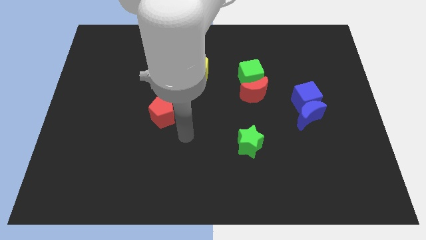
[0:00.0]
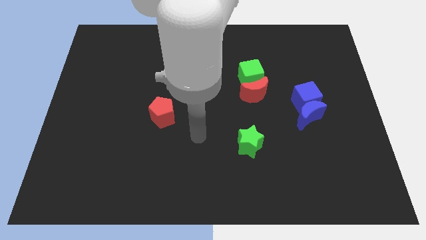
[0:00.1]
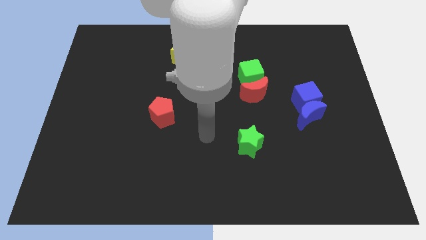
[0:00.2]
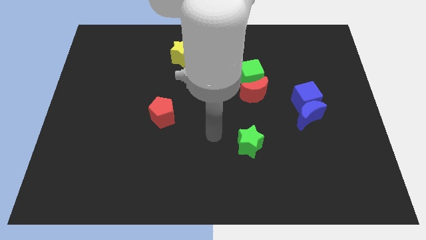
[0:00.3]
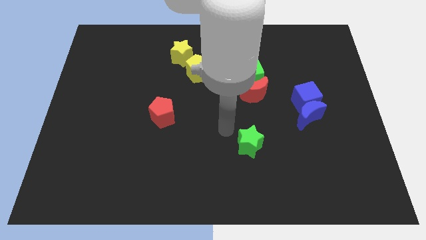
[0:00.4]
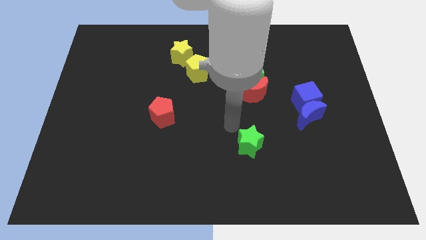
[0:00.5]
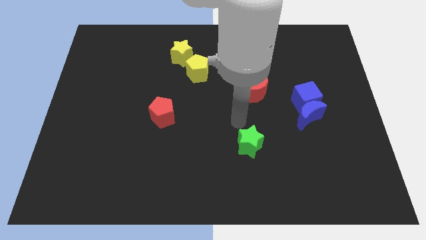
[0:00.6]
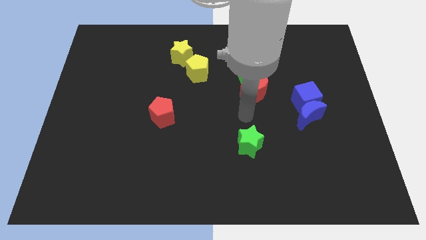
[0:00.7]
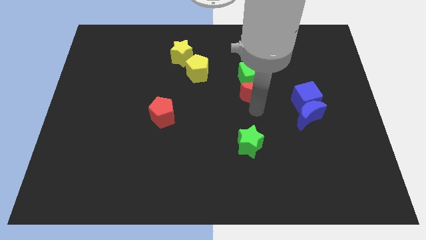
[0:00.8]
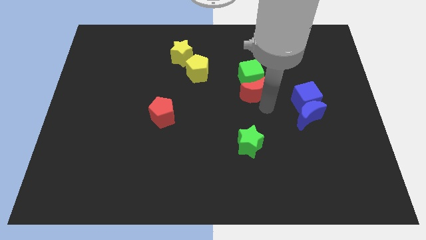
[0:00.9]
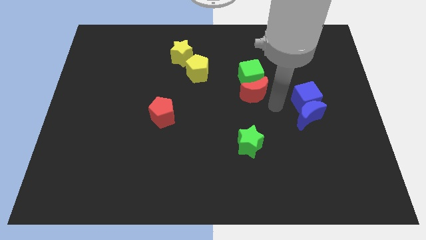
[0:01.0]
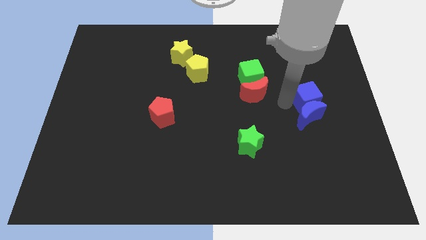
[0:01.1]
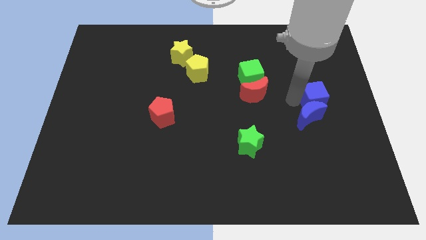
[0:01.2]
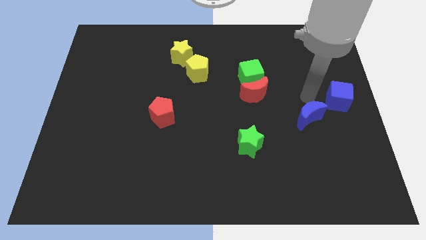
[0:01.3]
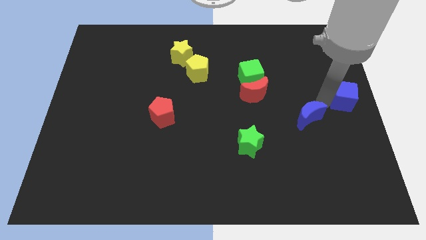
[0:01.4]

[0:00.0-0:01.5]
separate the blue moon from the blue cube

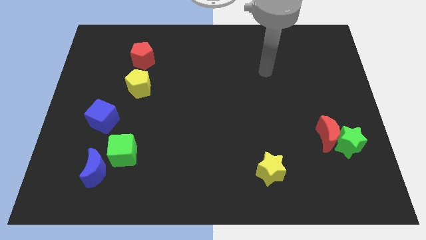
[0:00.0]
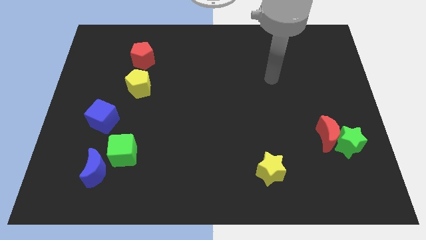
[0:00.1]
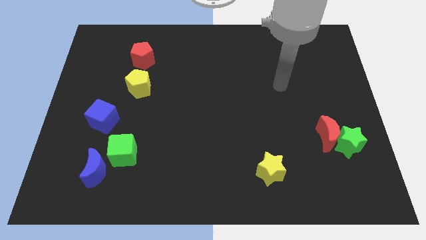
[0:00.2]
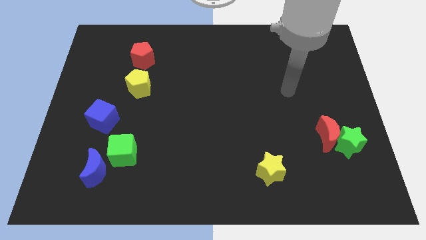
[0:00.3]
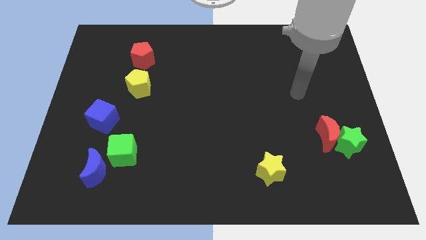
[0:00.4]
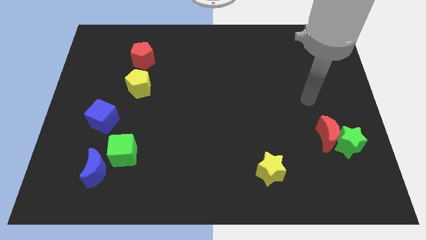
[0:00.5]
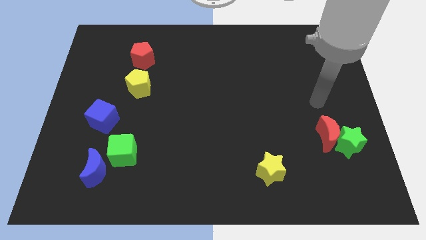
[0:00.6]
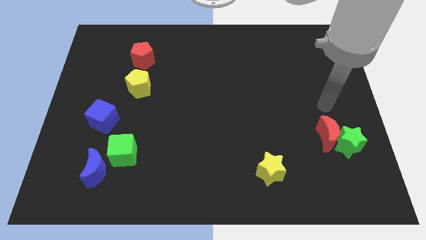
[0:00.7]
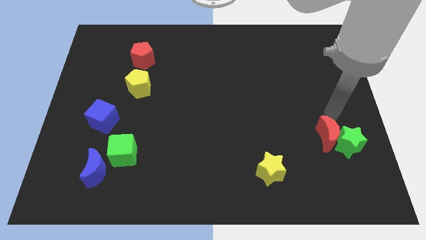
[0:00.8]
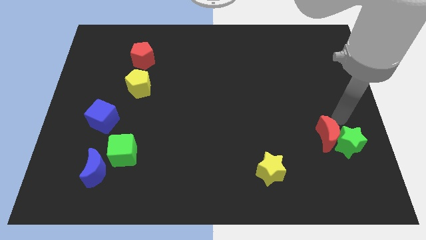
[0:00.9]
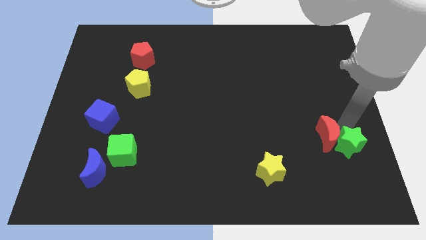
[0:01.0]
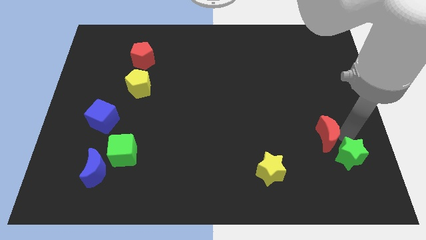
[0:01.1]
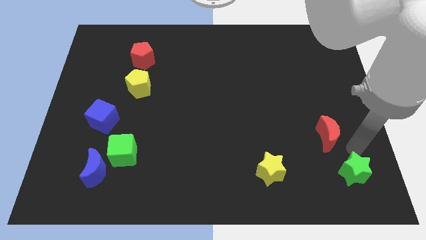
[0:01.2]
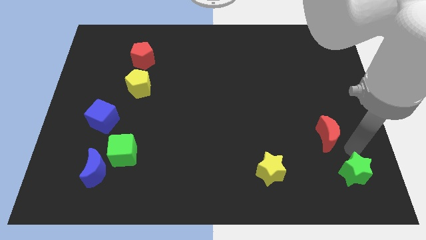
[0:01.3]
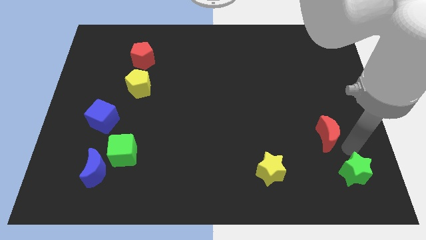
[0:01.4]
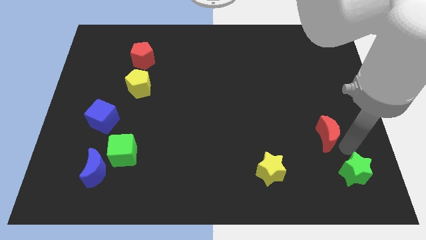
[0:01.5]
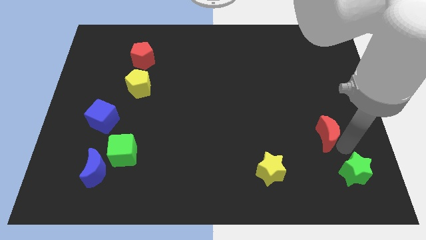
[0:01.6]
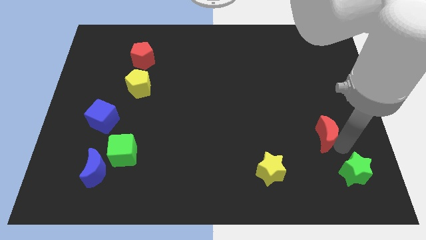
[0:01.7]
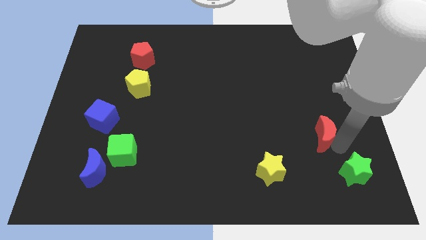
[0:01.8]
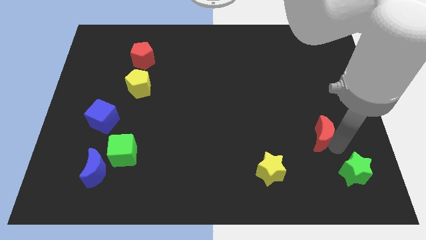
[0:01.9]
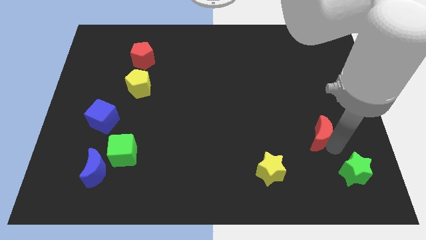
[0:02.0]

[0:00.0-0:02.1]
move the red moon away from the green star

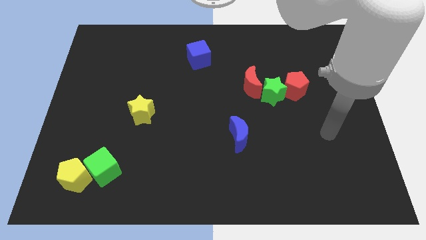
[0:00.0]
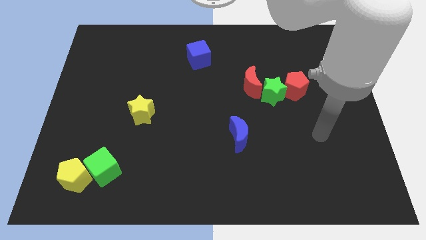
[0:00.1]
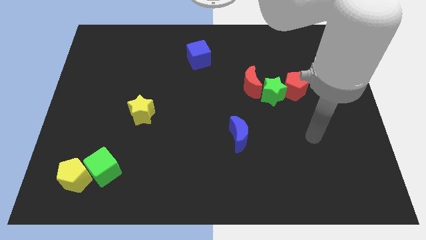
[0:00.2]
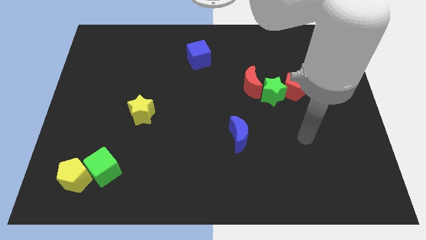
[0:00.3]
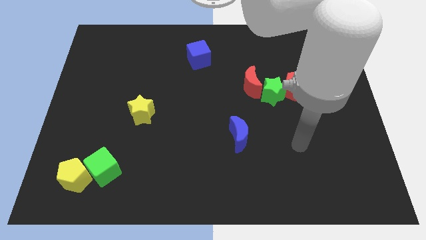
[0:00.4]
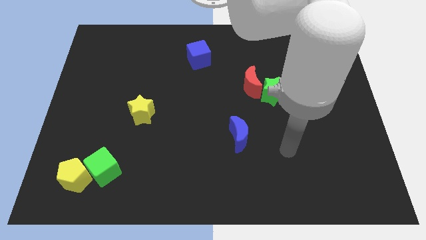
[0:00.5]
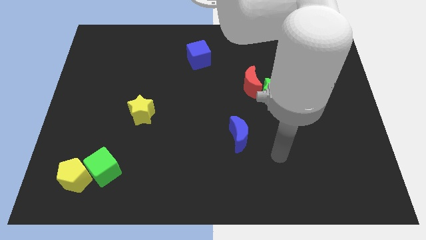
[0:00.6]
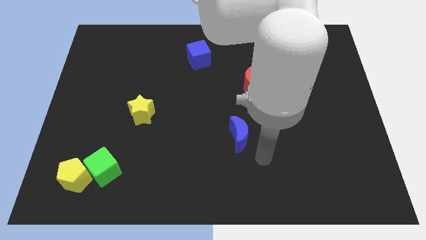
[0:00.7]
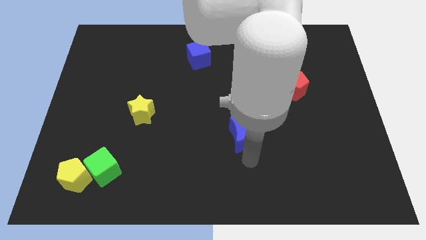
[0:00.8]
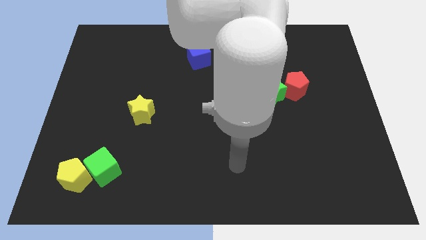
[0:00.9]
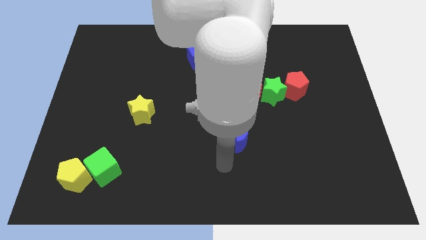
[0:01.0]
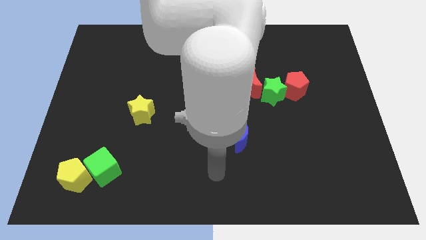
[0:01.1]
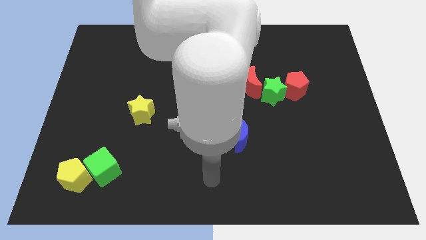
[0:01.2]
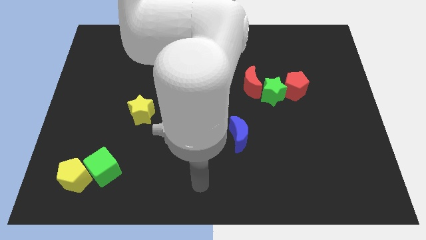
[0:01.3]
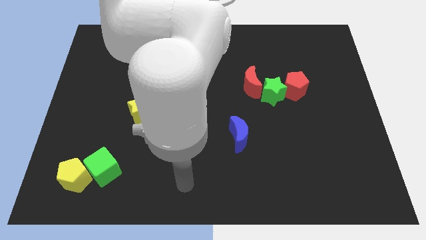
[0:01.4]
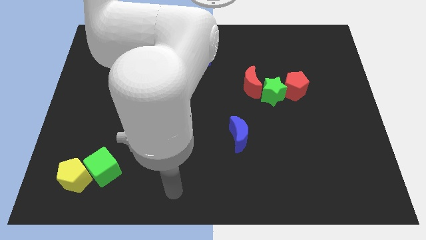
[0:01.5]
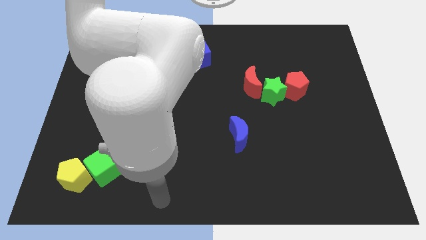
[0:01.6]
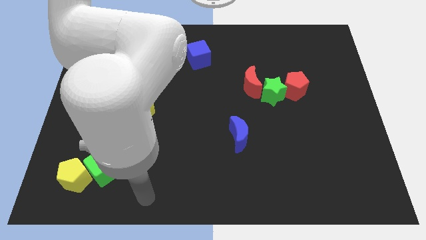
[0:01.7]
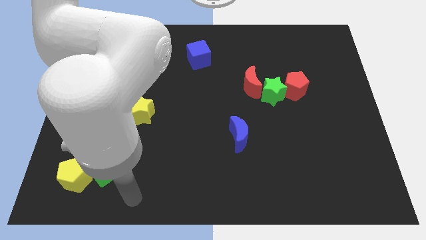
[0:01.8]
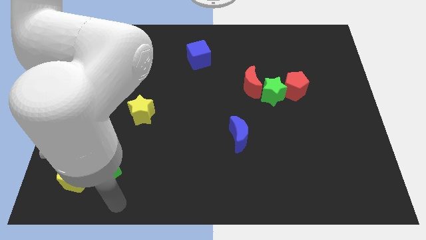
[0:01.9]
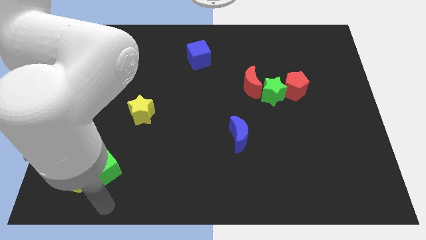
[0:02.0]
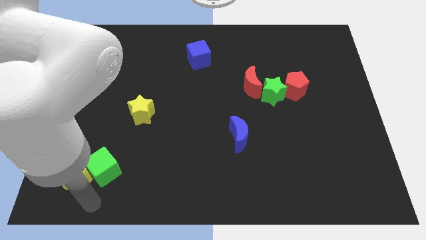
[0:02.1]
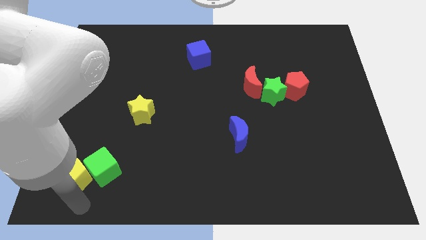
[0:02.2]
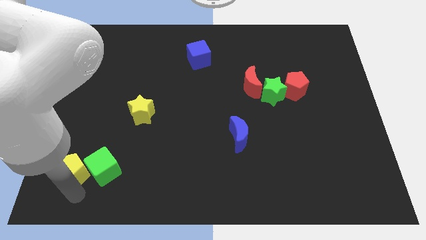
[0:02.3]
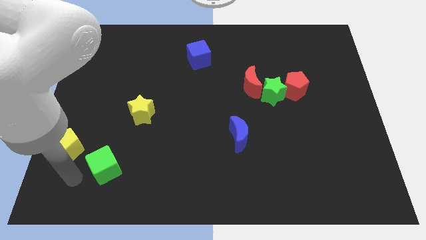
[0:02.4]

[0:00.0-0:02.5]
pull the green cube apart from the yellow pentagon

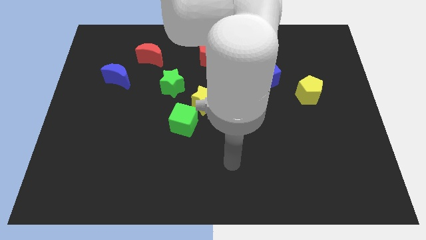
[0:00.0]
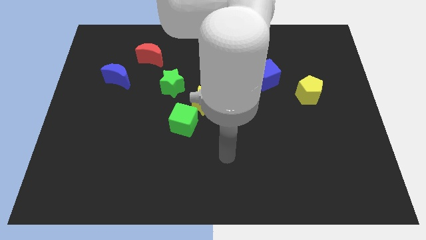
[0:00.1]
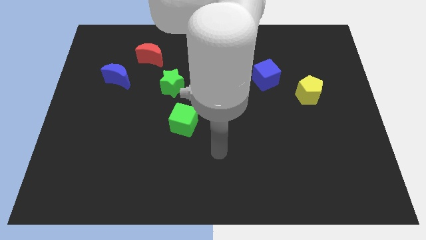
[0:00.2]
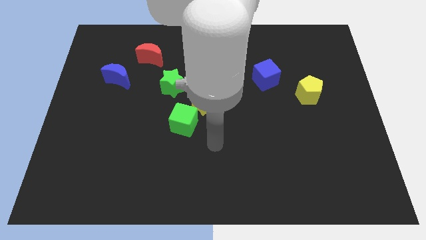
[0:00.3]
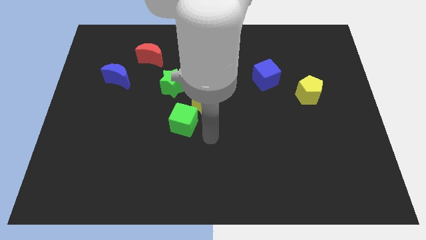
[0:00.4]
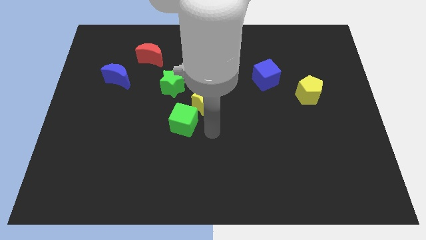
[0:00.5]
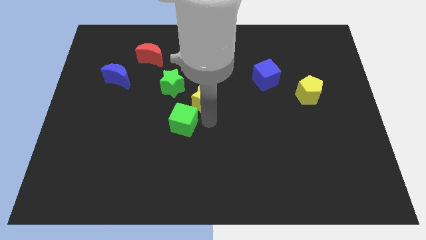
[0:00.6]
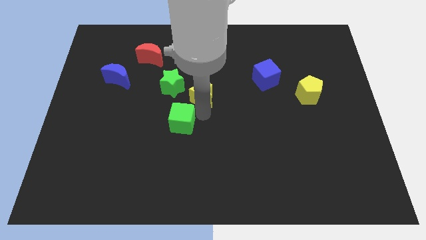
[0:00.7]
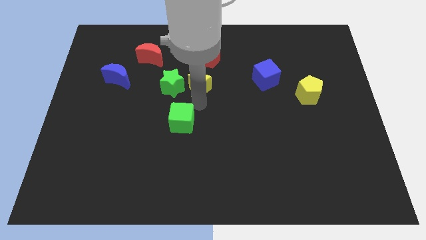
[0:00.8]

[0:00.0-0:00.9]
separate the green cube from the yellow star

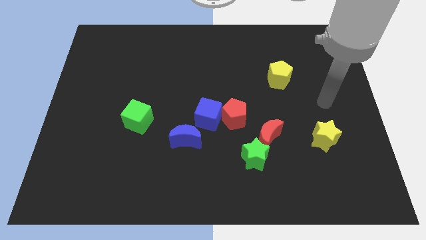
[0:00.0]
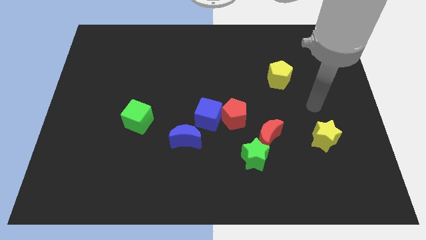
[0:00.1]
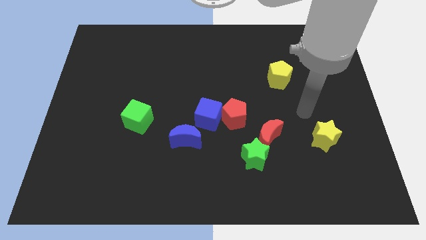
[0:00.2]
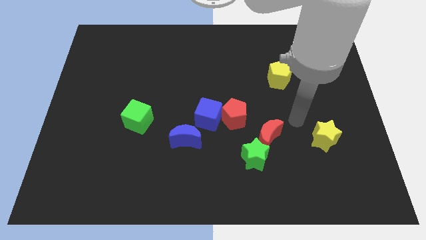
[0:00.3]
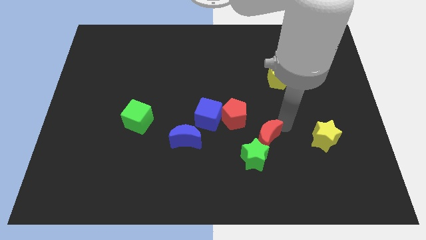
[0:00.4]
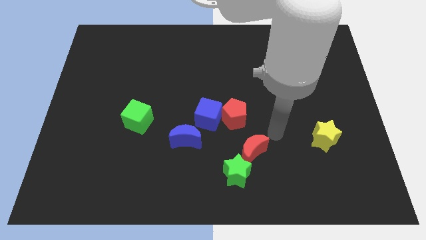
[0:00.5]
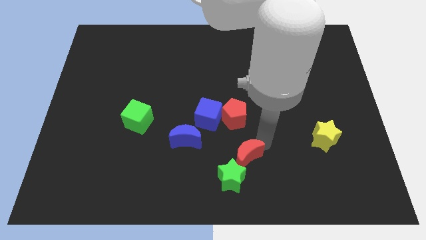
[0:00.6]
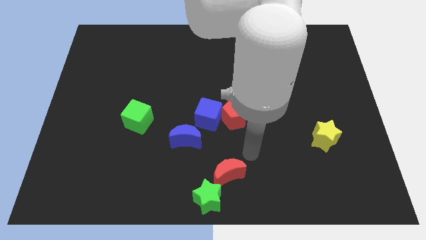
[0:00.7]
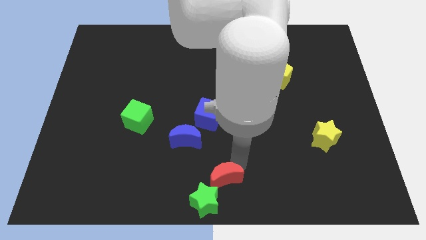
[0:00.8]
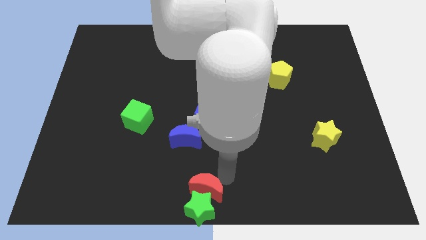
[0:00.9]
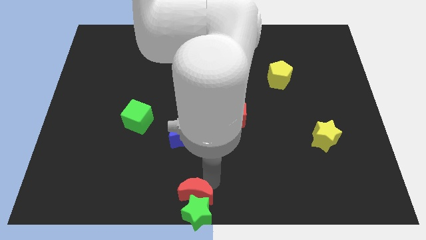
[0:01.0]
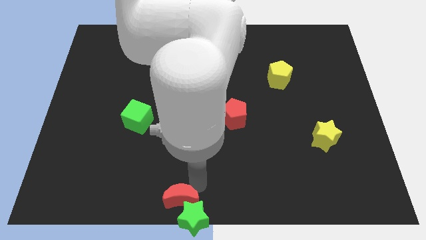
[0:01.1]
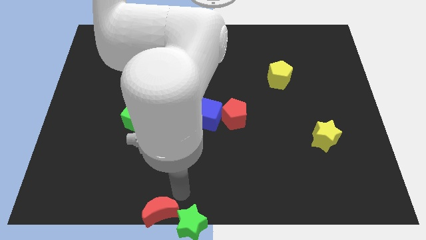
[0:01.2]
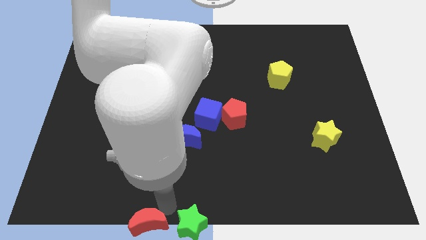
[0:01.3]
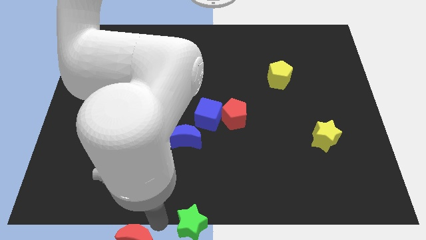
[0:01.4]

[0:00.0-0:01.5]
pull the green star apart from the red moon

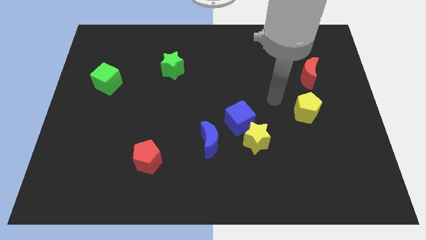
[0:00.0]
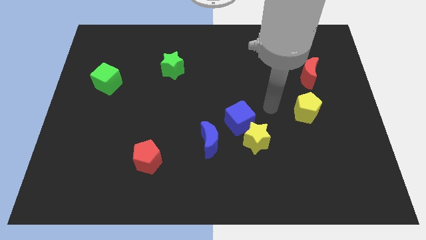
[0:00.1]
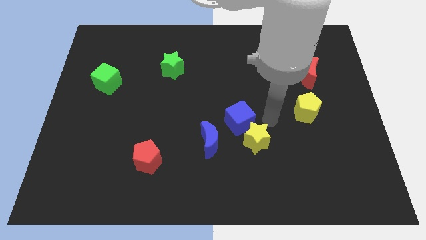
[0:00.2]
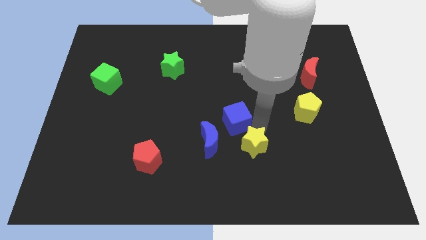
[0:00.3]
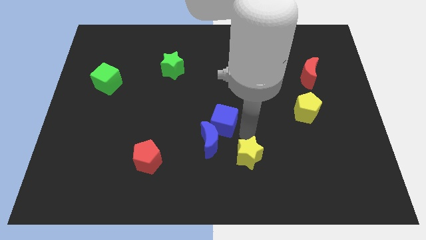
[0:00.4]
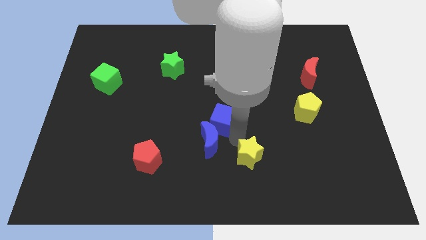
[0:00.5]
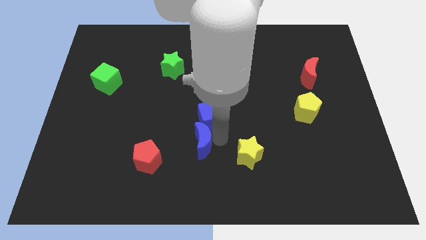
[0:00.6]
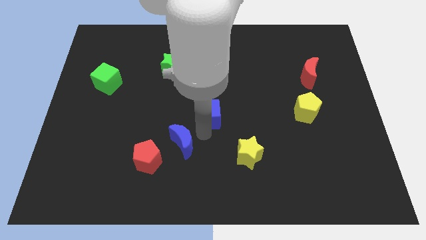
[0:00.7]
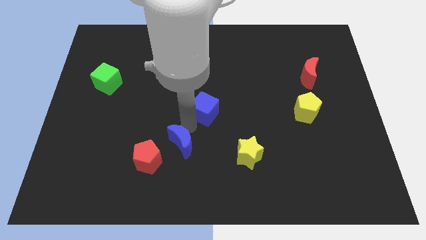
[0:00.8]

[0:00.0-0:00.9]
separate the blue cube from the yellow star and blue moon
